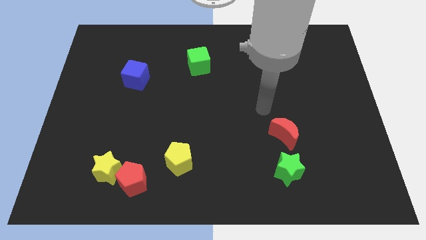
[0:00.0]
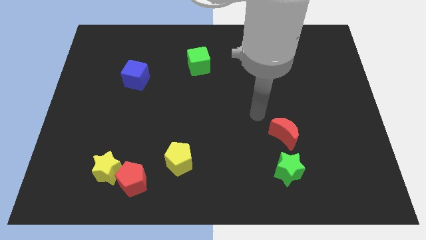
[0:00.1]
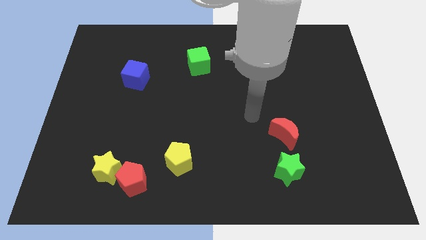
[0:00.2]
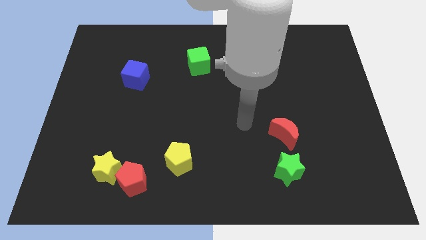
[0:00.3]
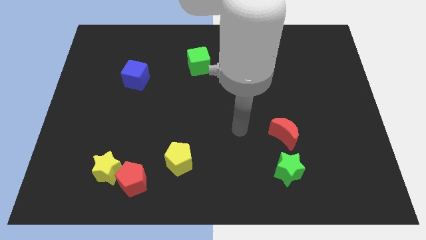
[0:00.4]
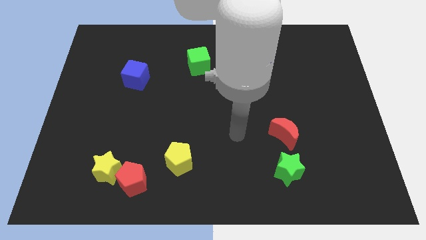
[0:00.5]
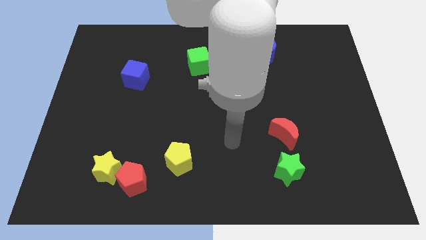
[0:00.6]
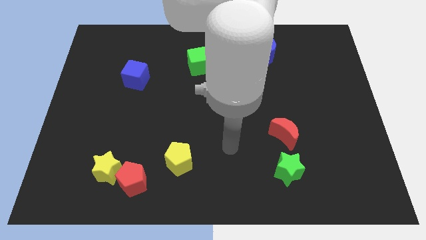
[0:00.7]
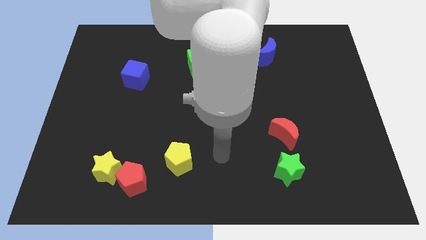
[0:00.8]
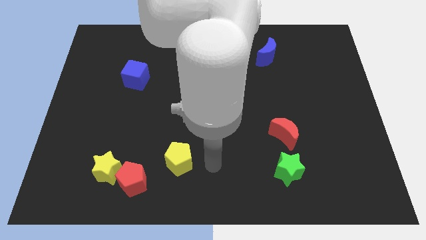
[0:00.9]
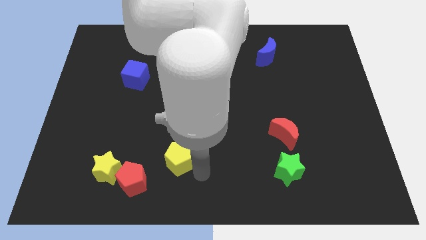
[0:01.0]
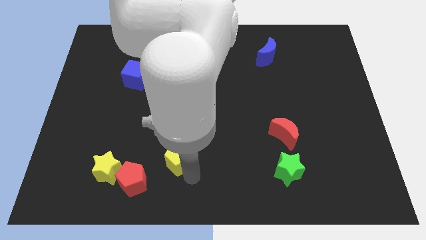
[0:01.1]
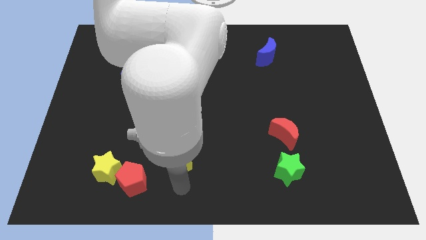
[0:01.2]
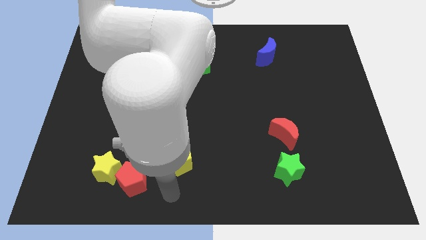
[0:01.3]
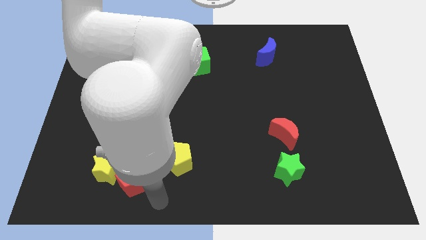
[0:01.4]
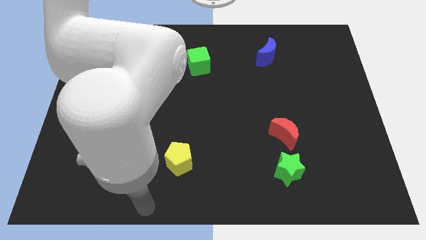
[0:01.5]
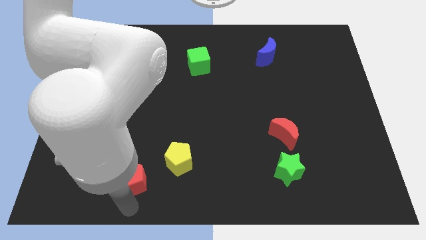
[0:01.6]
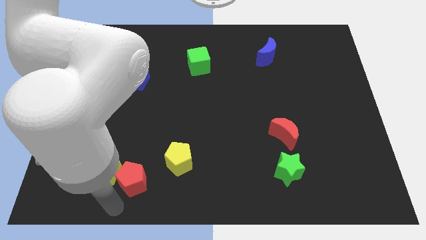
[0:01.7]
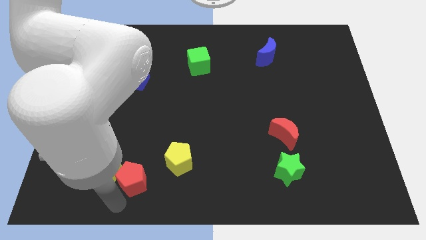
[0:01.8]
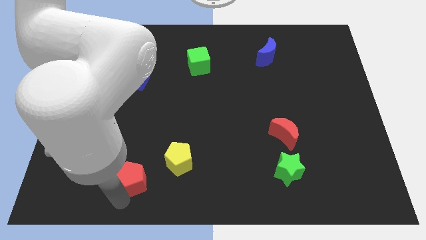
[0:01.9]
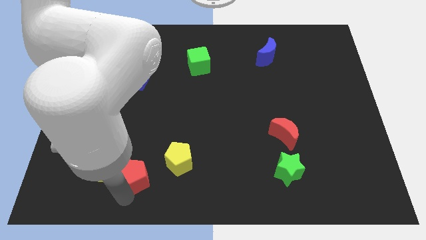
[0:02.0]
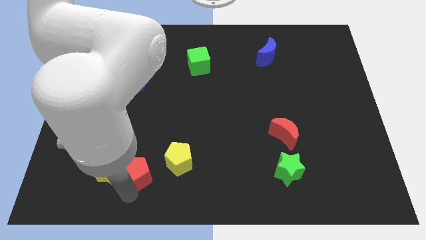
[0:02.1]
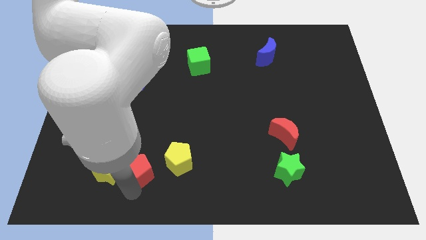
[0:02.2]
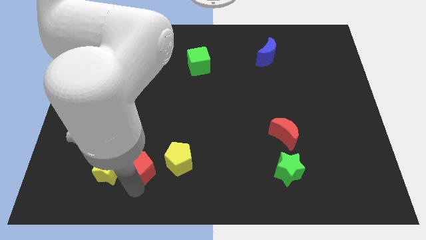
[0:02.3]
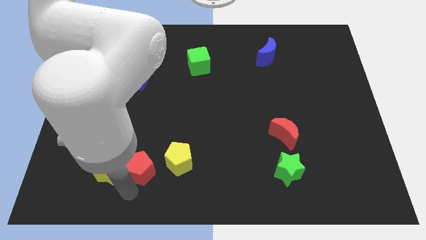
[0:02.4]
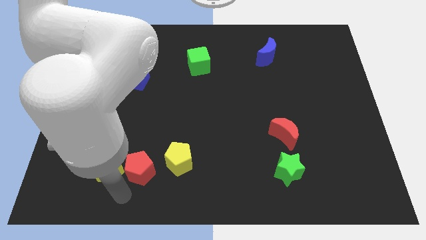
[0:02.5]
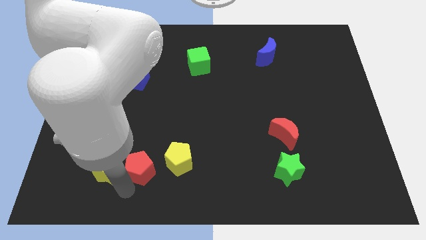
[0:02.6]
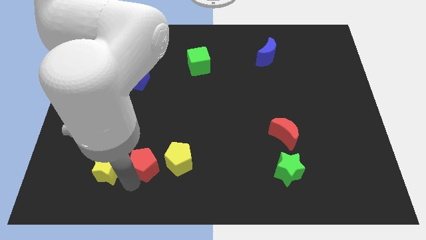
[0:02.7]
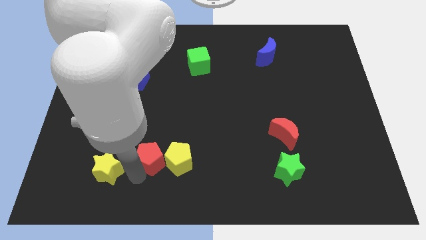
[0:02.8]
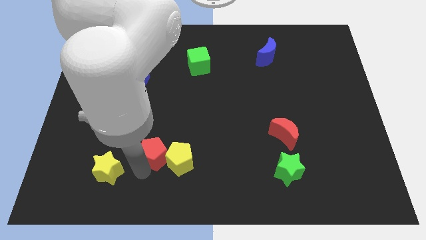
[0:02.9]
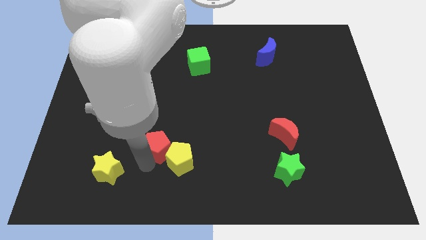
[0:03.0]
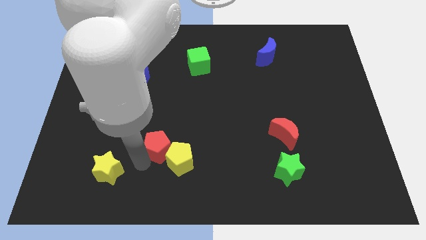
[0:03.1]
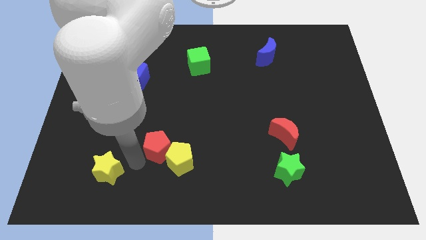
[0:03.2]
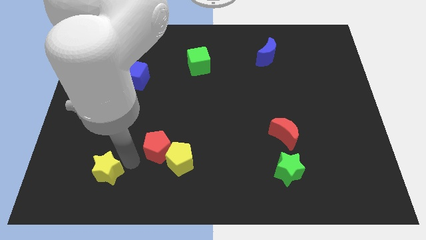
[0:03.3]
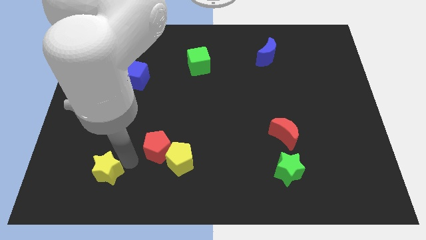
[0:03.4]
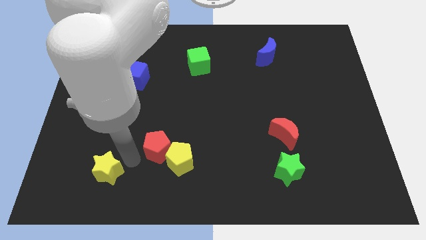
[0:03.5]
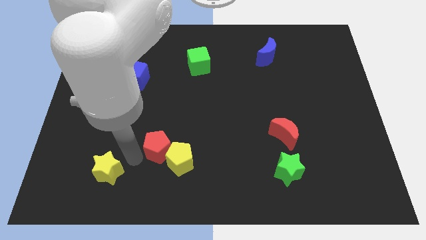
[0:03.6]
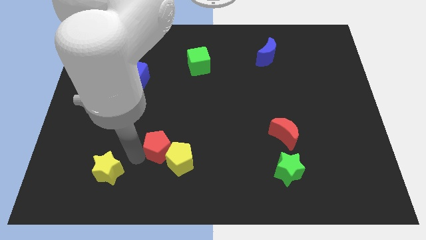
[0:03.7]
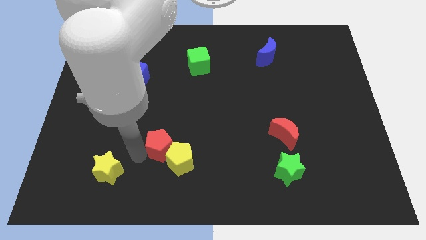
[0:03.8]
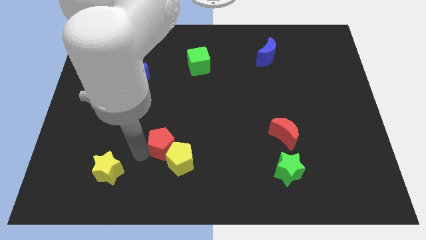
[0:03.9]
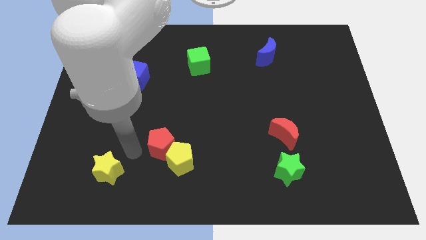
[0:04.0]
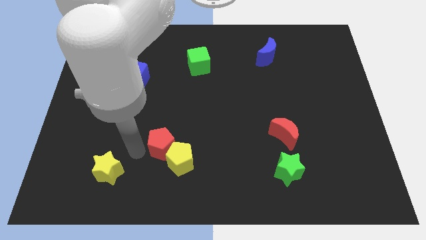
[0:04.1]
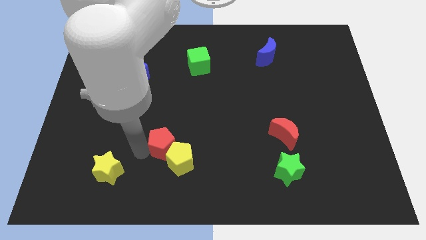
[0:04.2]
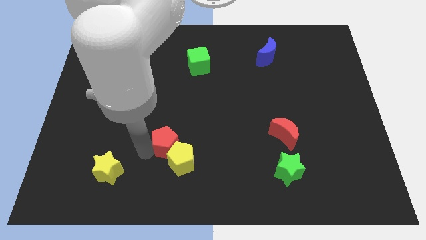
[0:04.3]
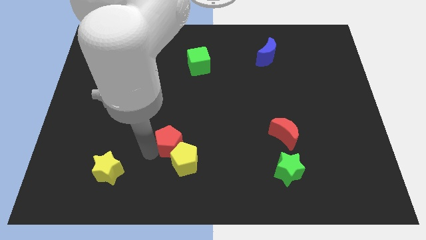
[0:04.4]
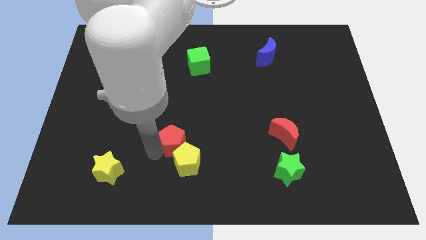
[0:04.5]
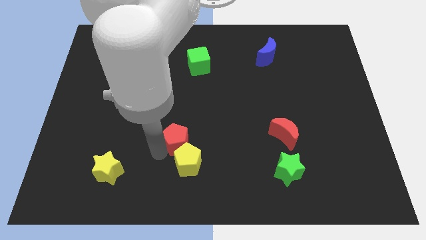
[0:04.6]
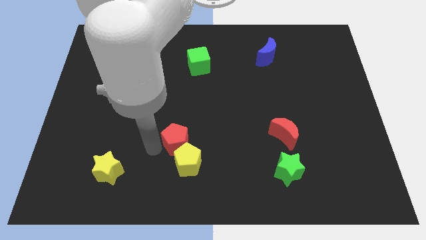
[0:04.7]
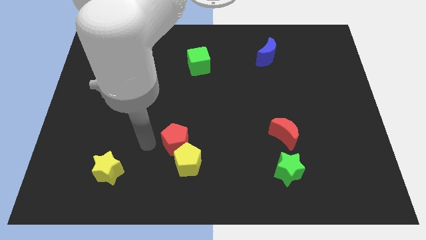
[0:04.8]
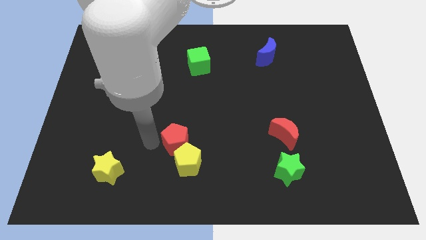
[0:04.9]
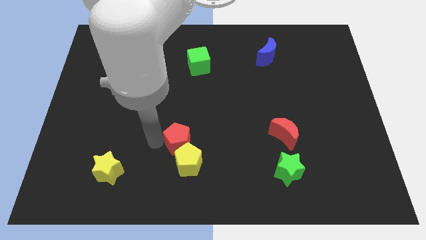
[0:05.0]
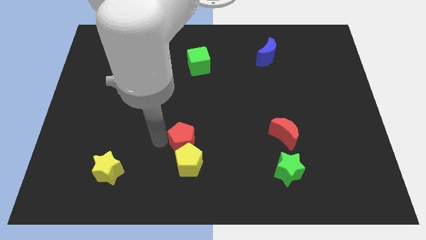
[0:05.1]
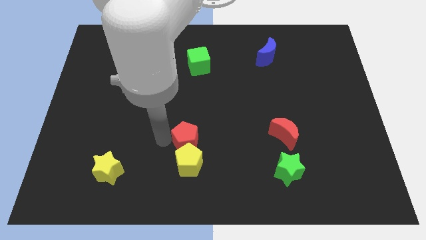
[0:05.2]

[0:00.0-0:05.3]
put the red pentagon to the top right of the yellow pentagon

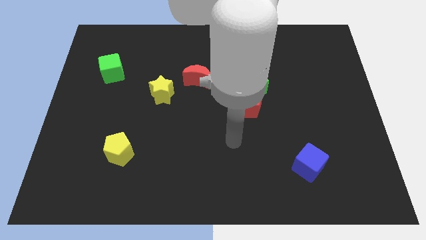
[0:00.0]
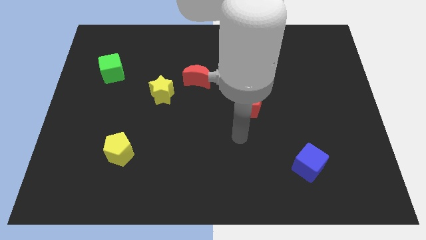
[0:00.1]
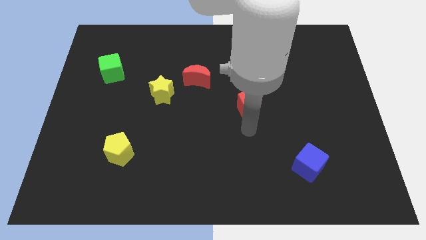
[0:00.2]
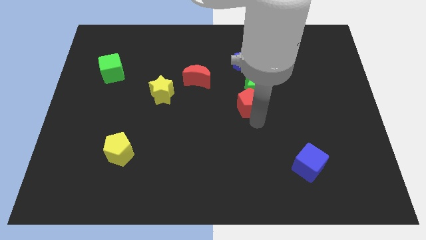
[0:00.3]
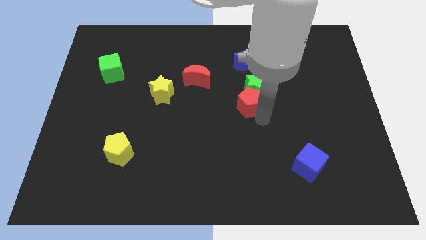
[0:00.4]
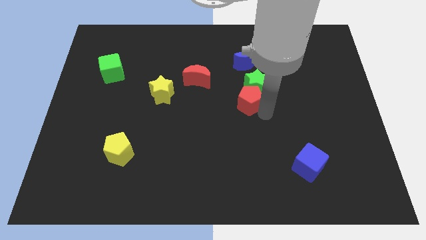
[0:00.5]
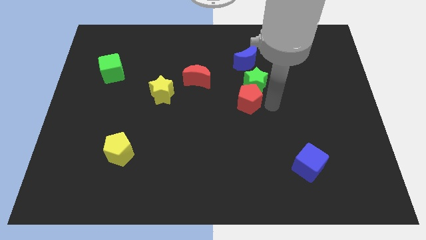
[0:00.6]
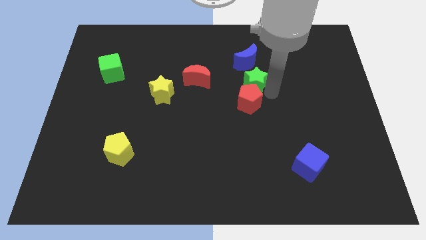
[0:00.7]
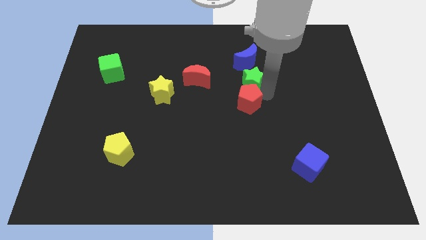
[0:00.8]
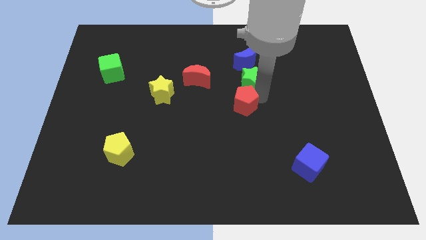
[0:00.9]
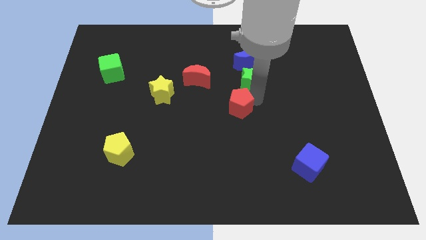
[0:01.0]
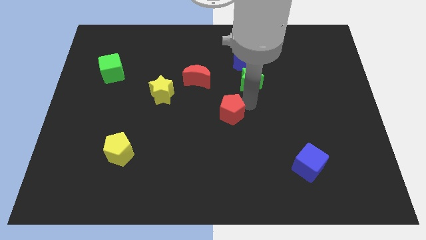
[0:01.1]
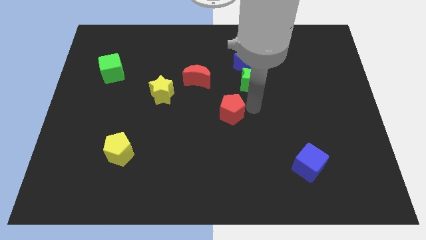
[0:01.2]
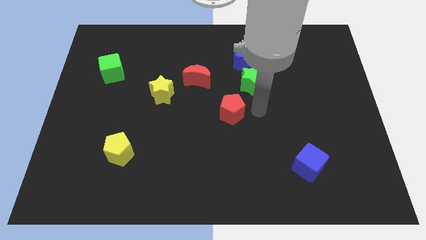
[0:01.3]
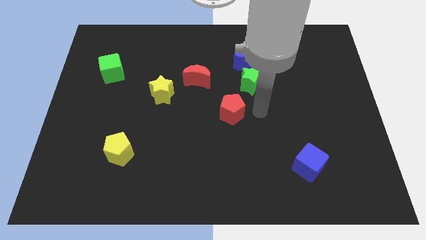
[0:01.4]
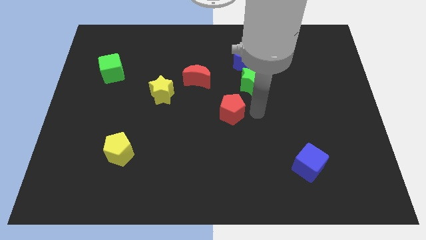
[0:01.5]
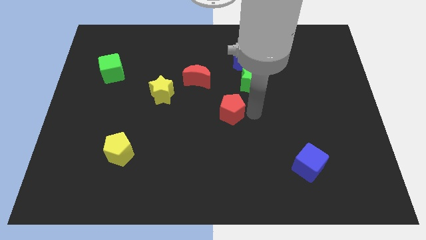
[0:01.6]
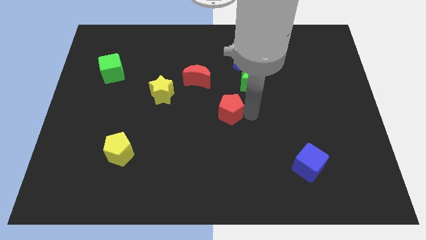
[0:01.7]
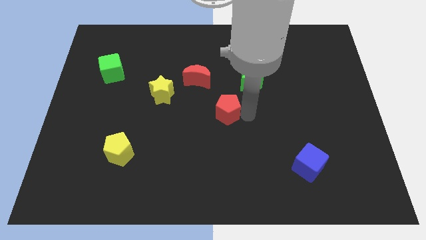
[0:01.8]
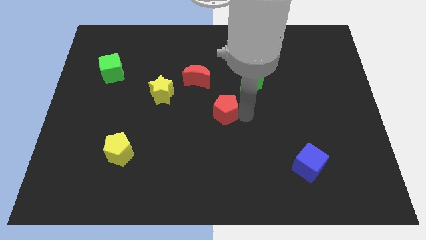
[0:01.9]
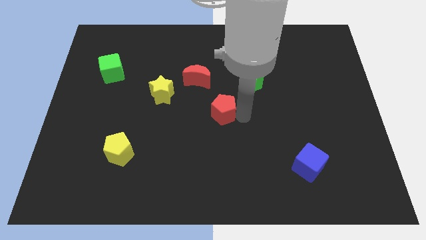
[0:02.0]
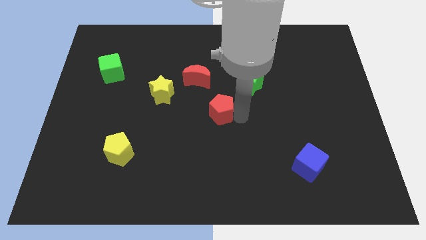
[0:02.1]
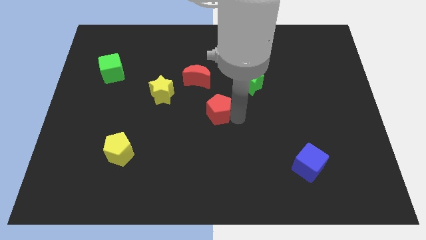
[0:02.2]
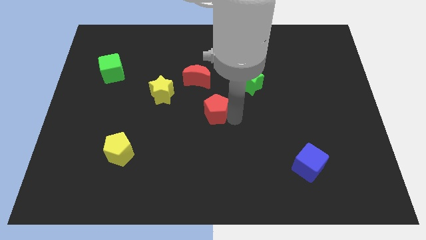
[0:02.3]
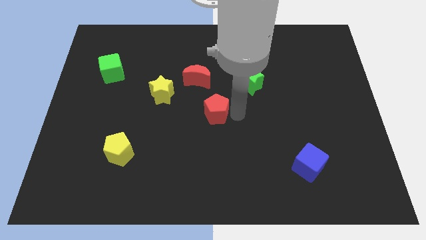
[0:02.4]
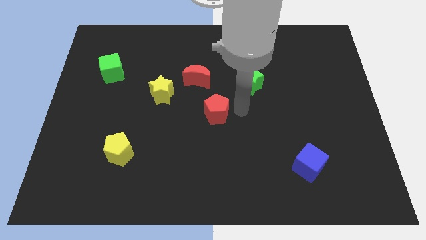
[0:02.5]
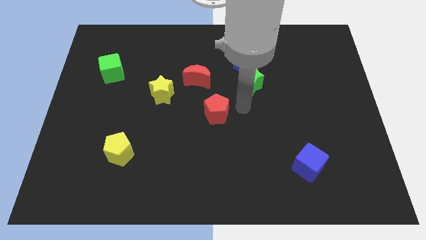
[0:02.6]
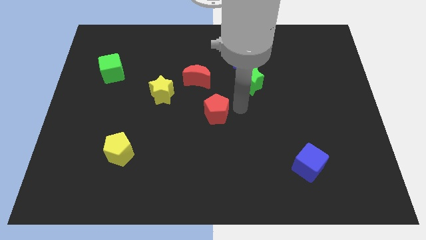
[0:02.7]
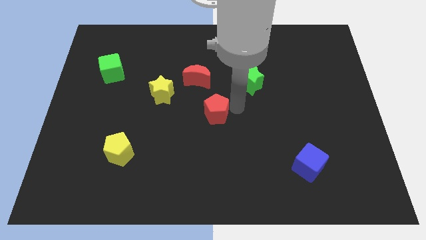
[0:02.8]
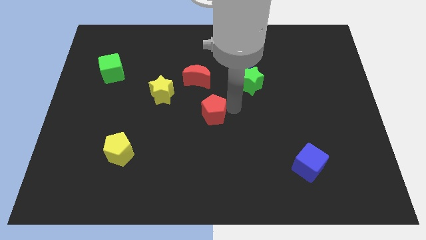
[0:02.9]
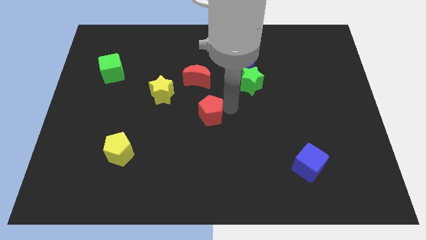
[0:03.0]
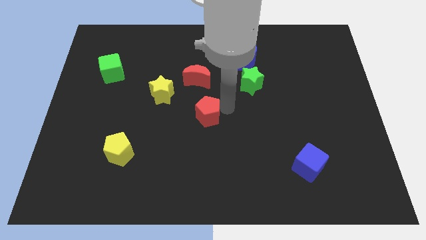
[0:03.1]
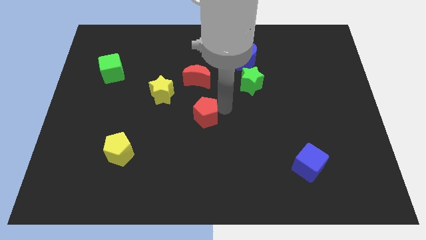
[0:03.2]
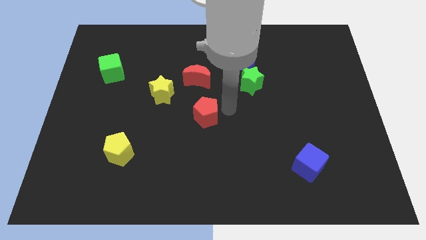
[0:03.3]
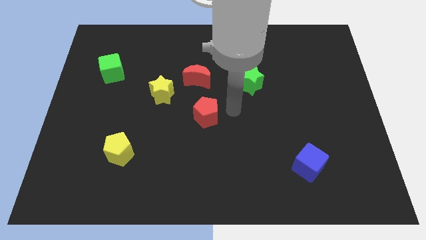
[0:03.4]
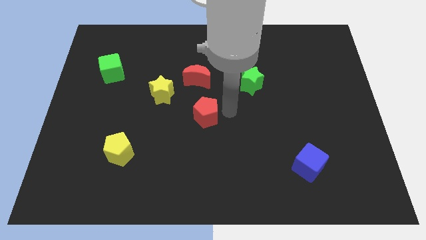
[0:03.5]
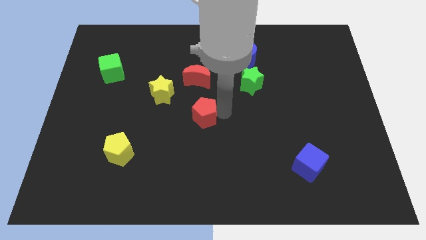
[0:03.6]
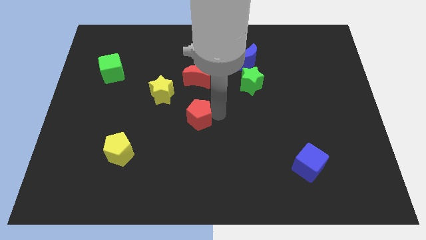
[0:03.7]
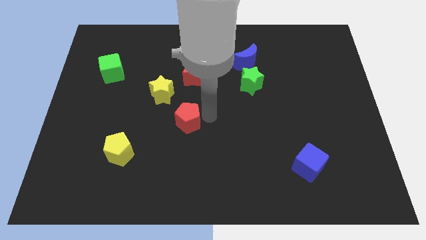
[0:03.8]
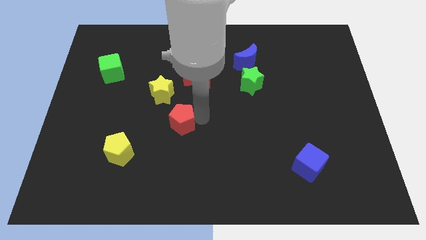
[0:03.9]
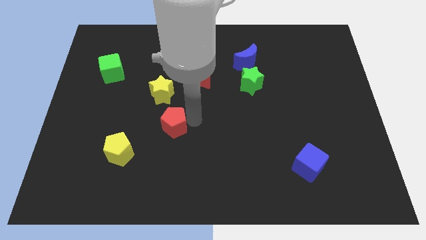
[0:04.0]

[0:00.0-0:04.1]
put the red pentagon to the bottom of the yellow star
